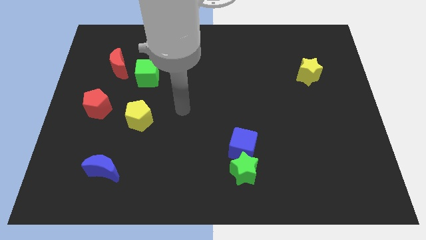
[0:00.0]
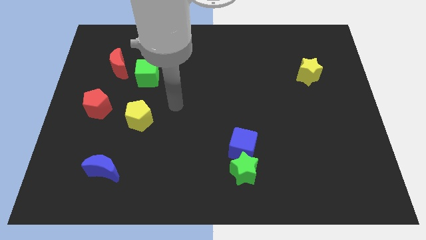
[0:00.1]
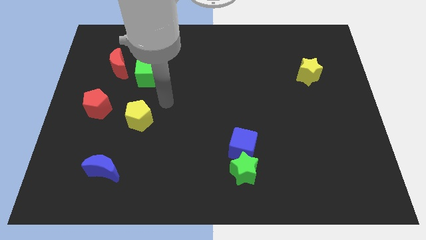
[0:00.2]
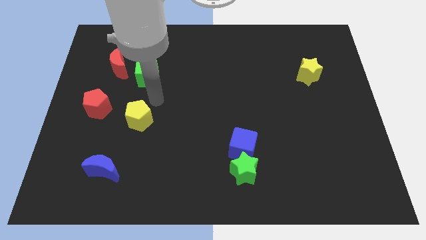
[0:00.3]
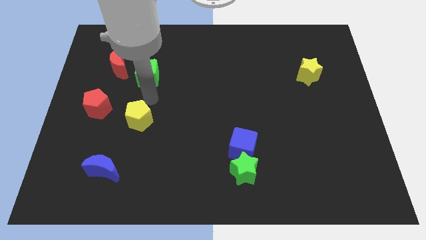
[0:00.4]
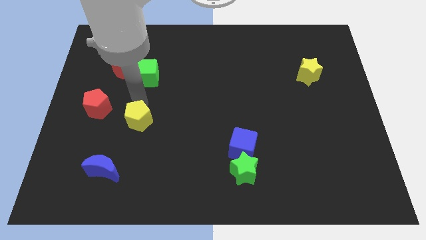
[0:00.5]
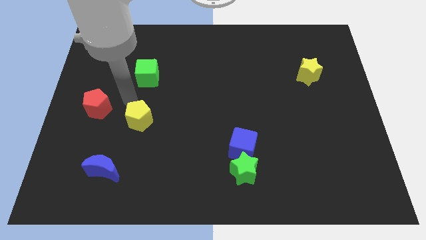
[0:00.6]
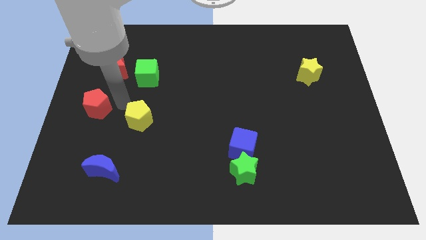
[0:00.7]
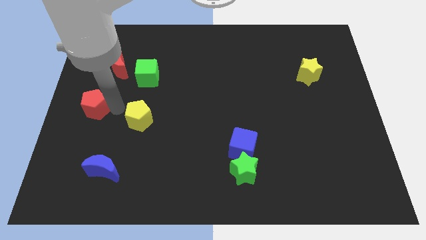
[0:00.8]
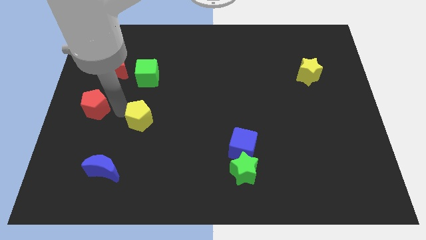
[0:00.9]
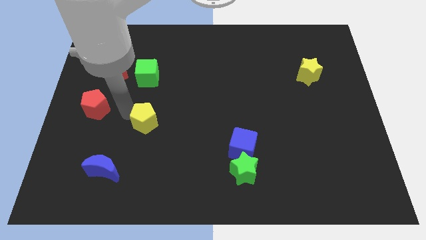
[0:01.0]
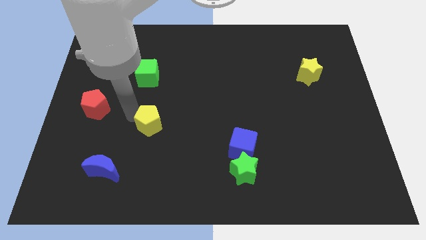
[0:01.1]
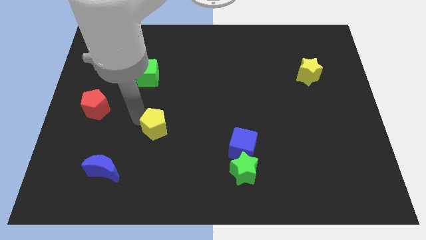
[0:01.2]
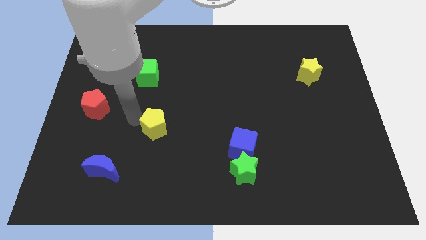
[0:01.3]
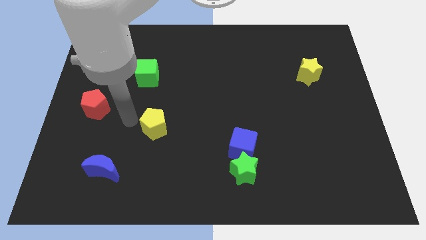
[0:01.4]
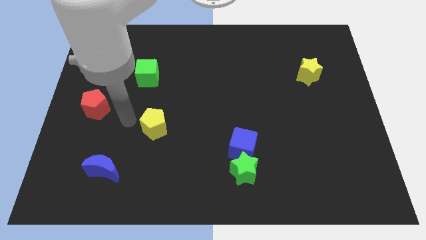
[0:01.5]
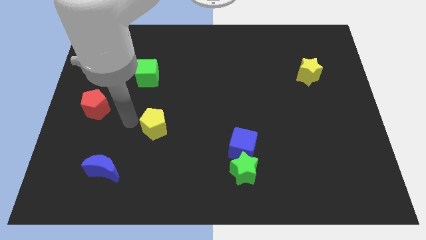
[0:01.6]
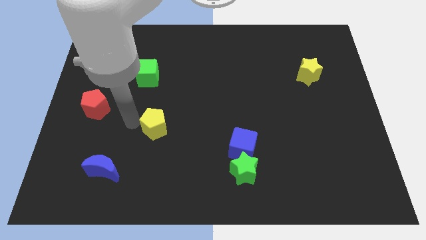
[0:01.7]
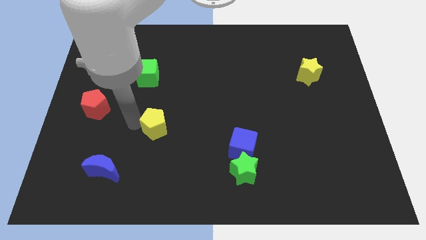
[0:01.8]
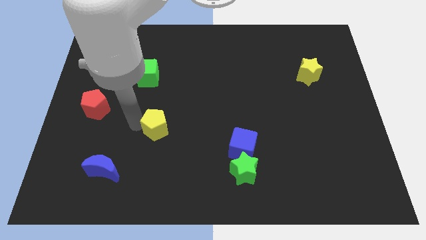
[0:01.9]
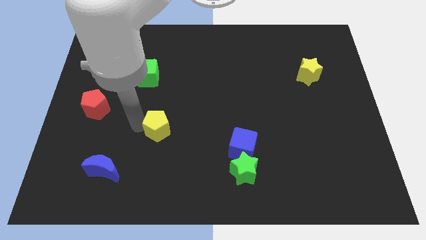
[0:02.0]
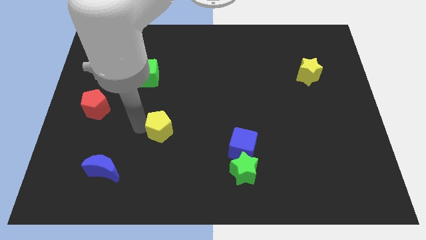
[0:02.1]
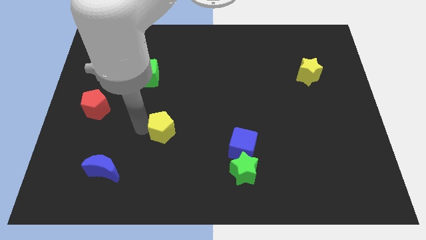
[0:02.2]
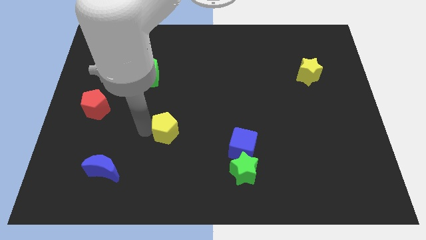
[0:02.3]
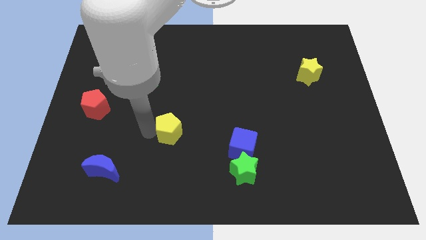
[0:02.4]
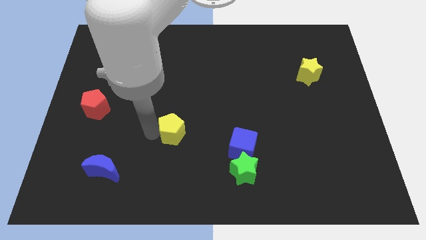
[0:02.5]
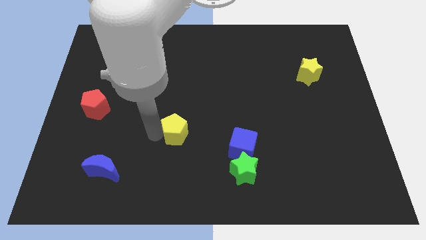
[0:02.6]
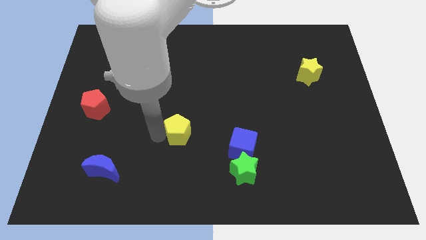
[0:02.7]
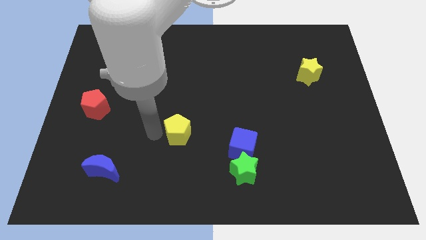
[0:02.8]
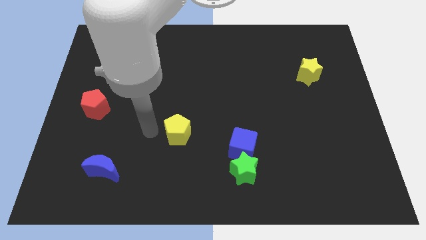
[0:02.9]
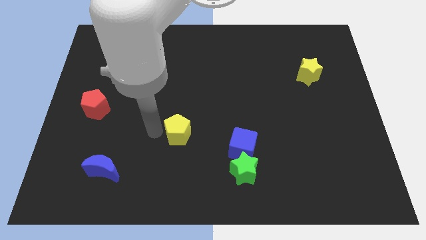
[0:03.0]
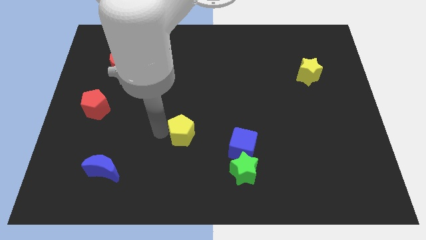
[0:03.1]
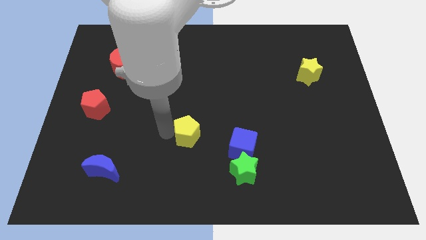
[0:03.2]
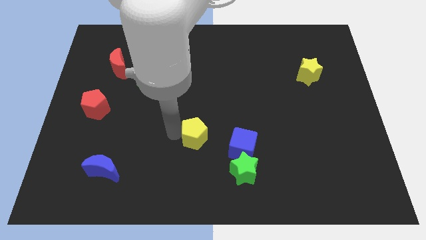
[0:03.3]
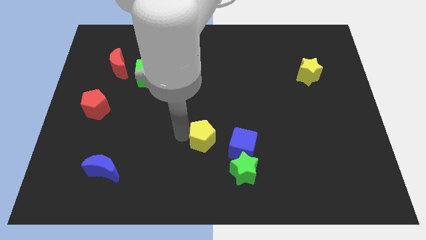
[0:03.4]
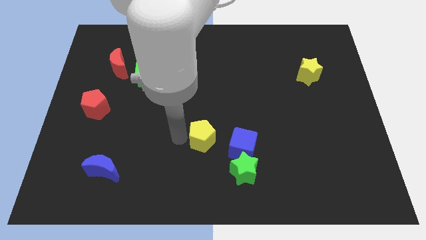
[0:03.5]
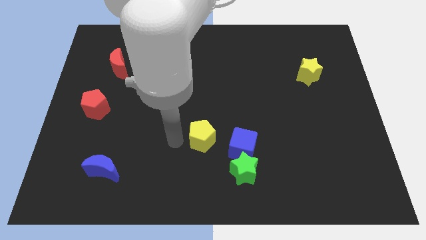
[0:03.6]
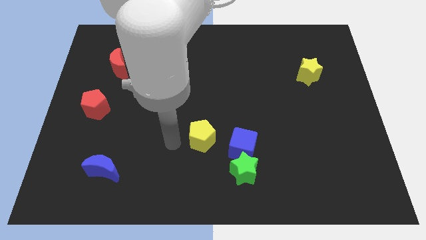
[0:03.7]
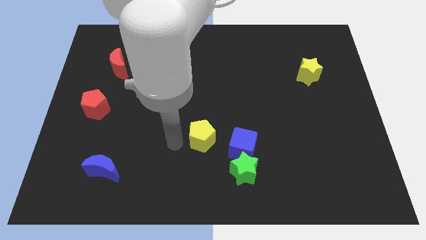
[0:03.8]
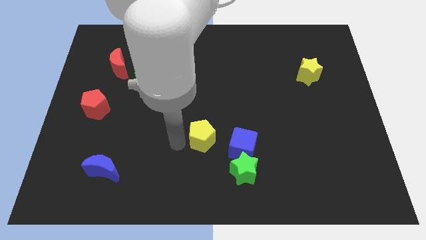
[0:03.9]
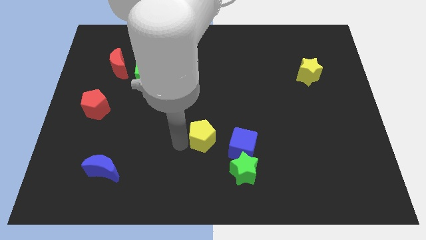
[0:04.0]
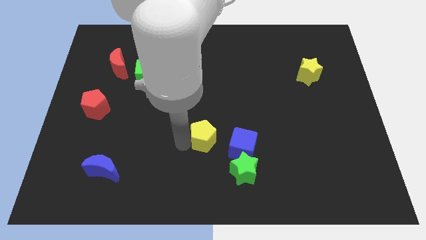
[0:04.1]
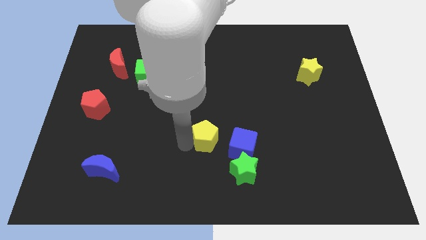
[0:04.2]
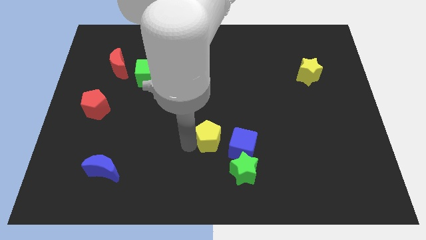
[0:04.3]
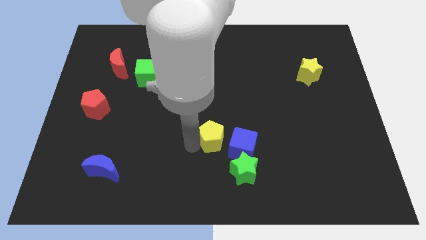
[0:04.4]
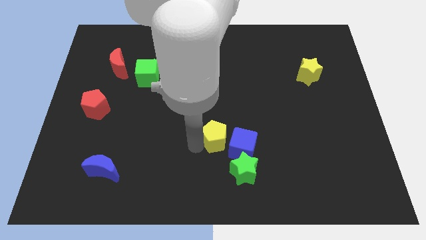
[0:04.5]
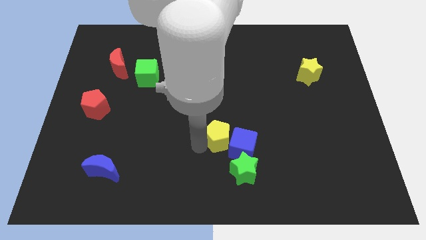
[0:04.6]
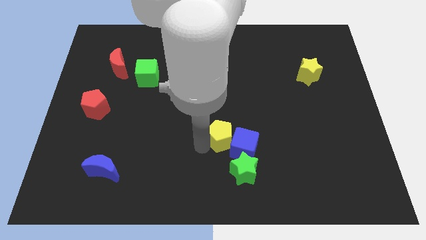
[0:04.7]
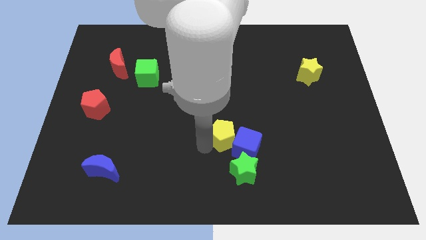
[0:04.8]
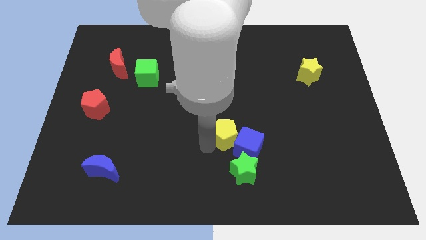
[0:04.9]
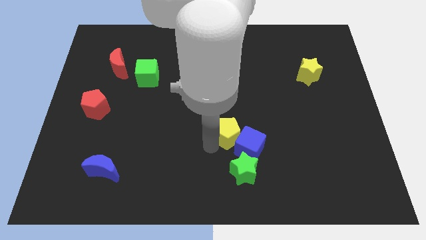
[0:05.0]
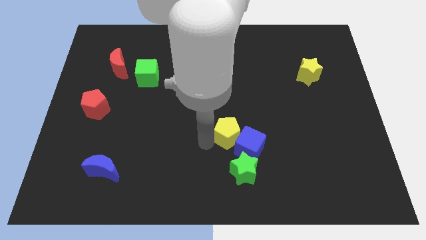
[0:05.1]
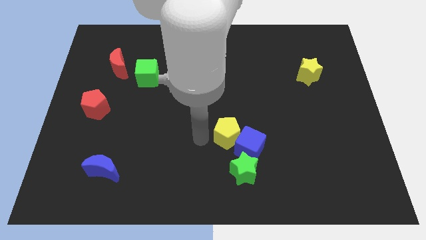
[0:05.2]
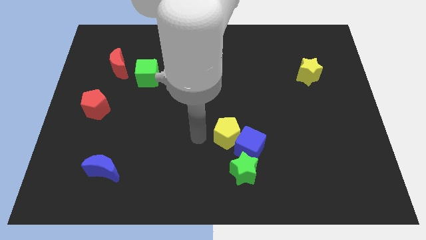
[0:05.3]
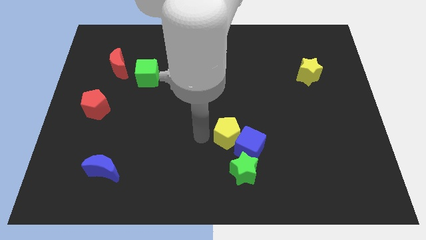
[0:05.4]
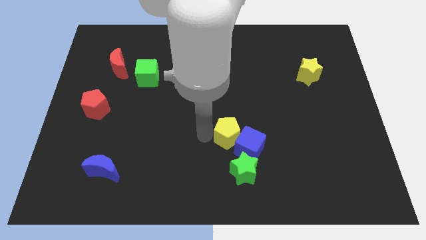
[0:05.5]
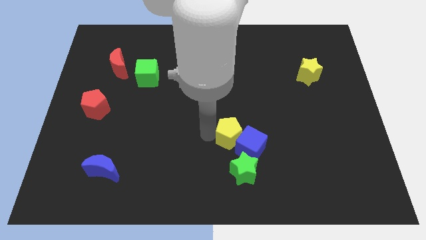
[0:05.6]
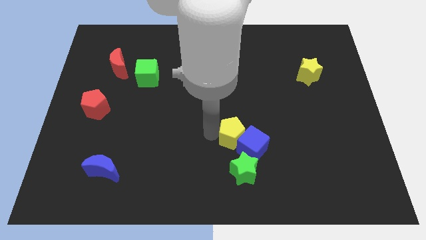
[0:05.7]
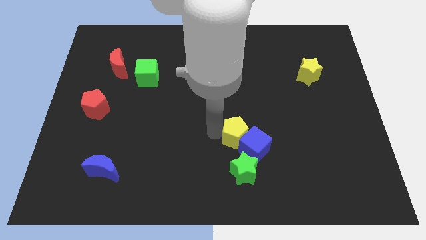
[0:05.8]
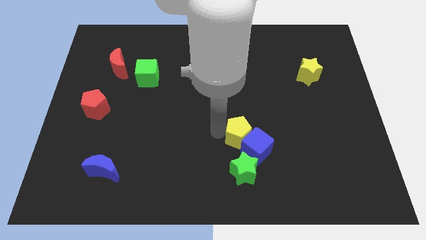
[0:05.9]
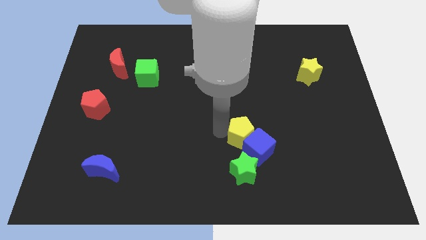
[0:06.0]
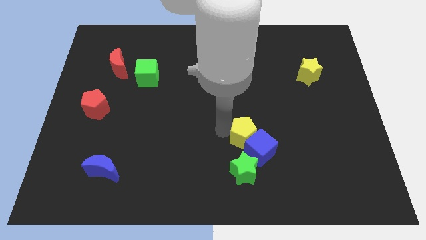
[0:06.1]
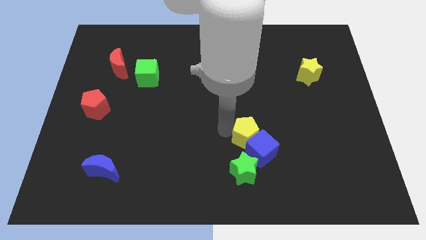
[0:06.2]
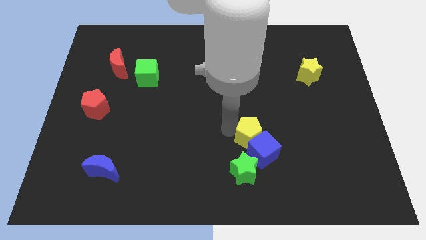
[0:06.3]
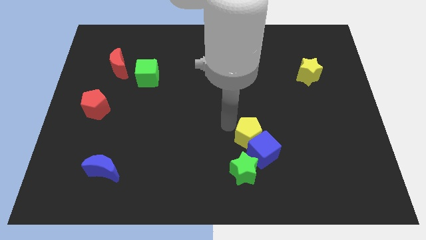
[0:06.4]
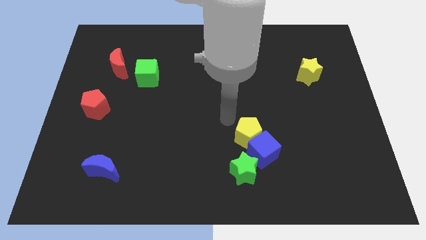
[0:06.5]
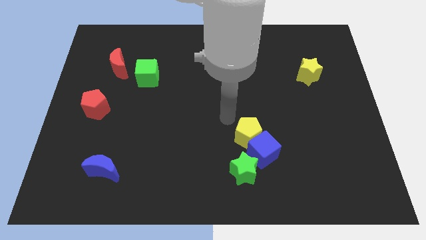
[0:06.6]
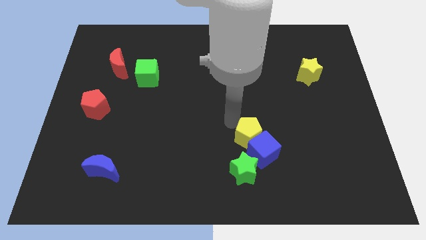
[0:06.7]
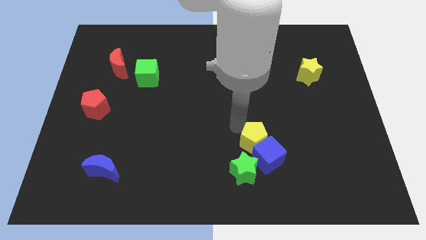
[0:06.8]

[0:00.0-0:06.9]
push the yellow pentagon to the top right of the green star

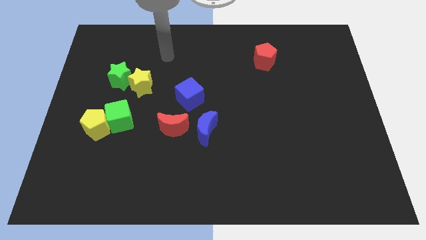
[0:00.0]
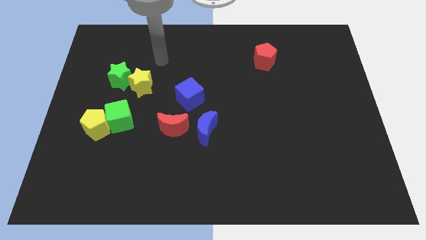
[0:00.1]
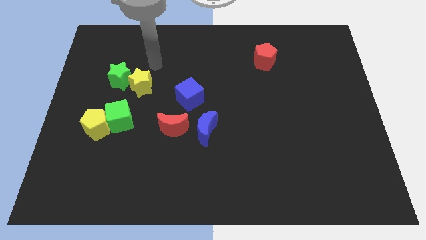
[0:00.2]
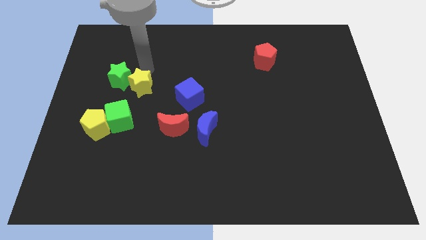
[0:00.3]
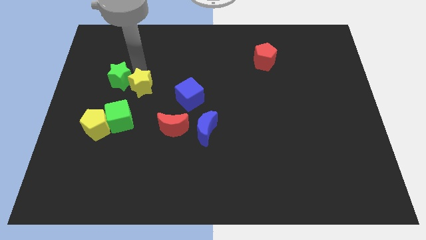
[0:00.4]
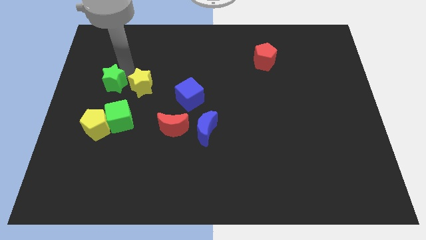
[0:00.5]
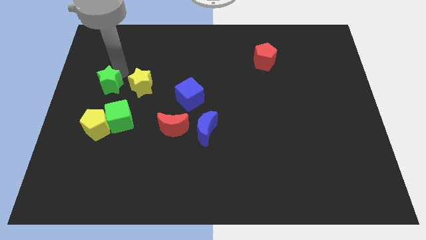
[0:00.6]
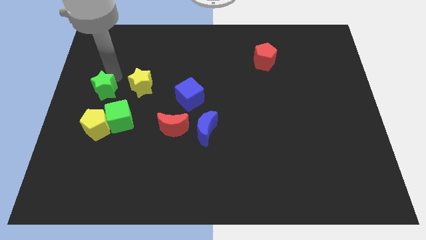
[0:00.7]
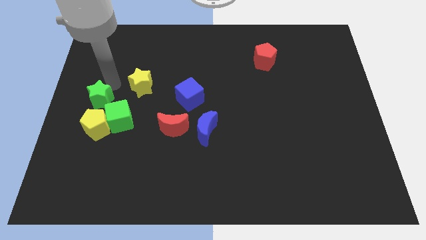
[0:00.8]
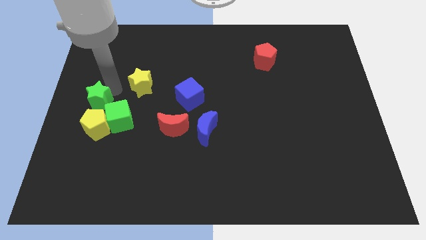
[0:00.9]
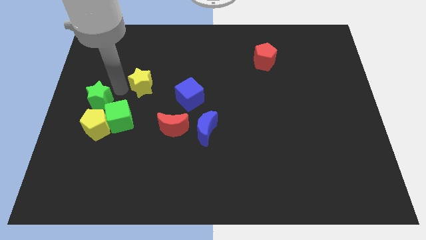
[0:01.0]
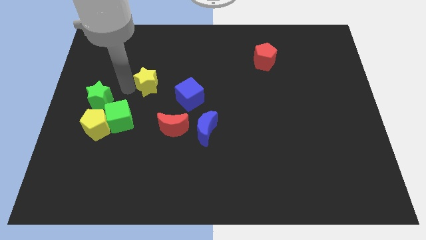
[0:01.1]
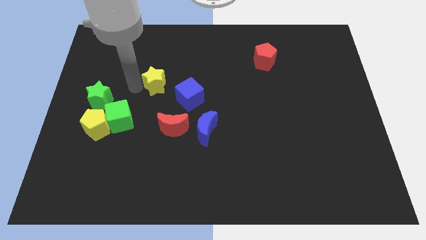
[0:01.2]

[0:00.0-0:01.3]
move the yellow star diagonally up and to the left of the blue cube
